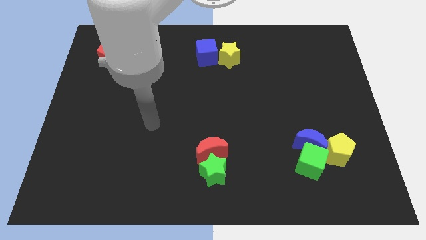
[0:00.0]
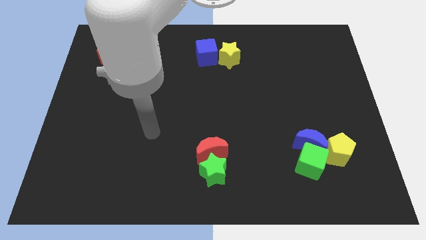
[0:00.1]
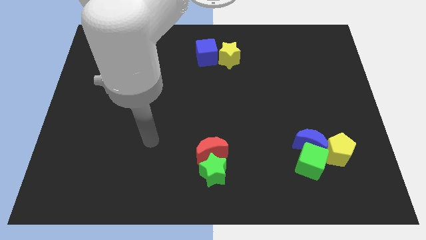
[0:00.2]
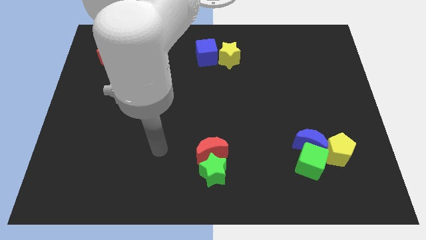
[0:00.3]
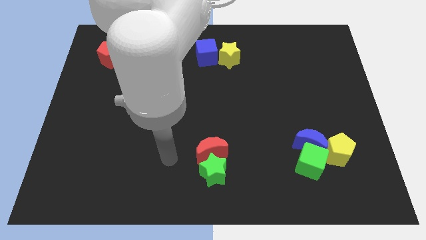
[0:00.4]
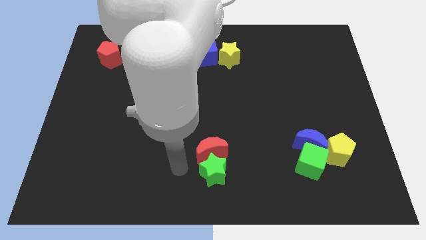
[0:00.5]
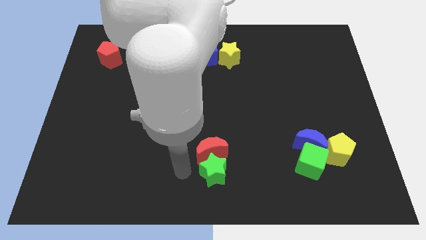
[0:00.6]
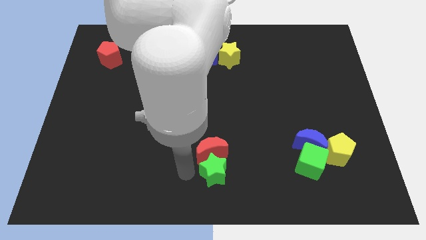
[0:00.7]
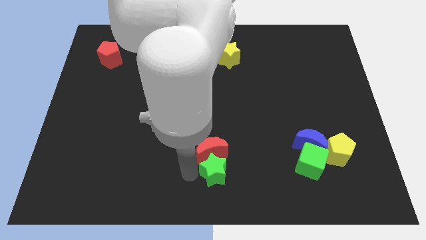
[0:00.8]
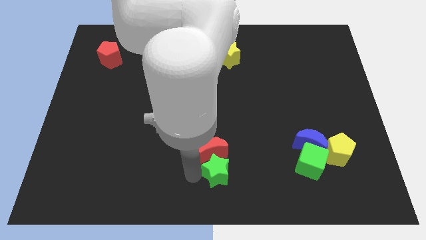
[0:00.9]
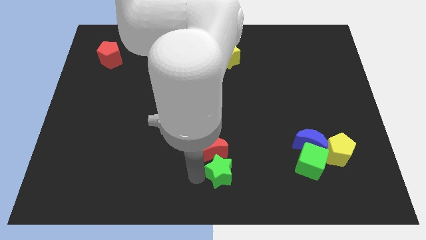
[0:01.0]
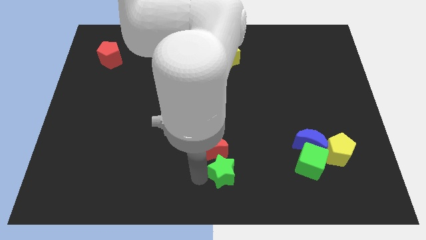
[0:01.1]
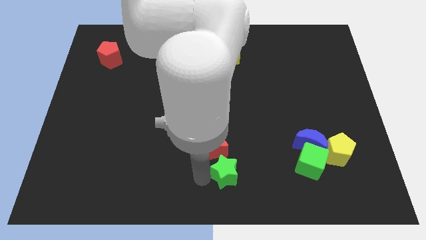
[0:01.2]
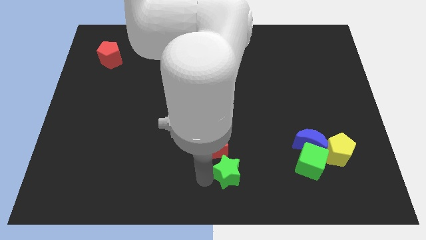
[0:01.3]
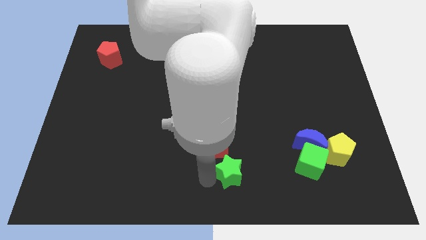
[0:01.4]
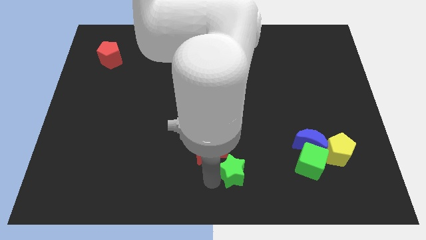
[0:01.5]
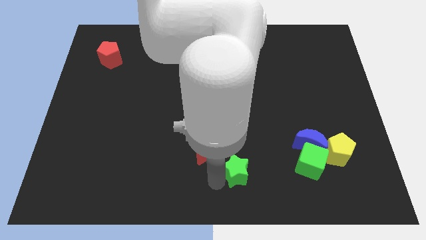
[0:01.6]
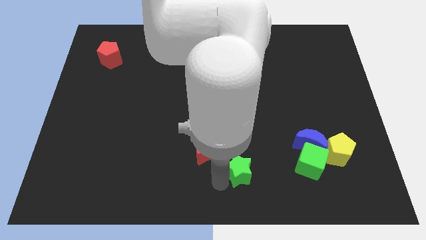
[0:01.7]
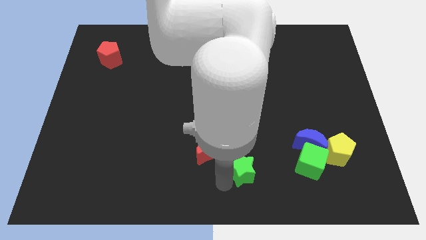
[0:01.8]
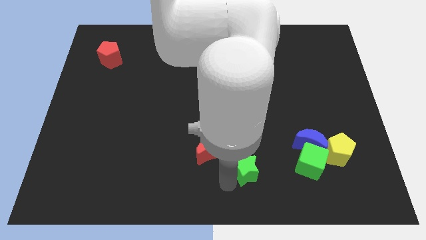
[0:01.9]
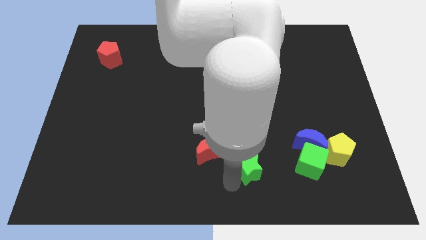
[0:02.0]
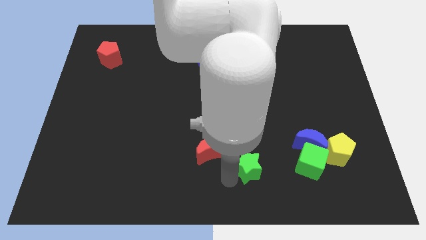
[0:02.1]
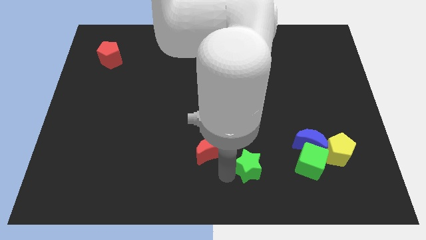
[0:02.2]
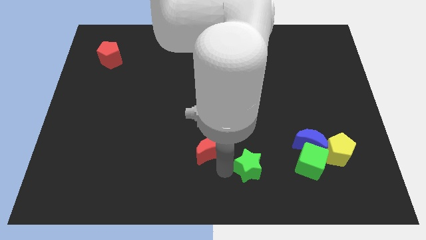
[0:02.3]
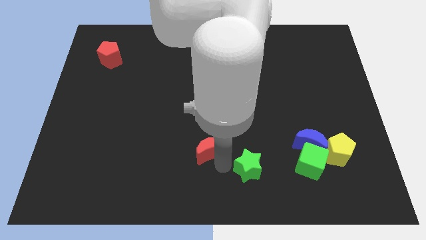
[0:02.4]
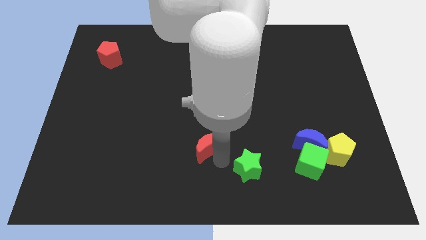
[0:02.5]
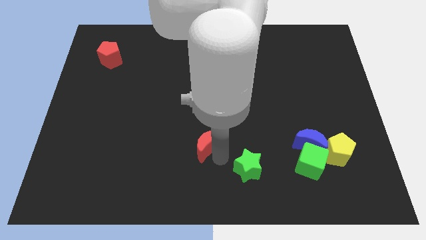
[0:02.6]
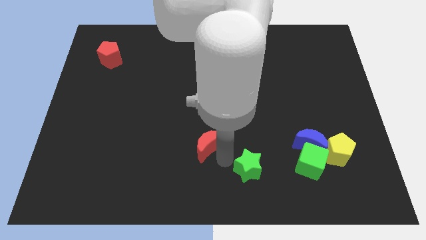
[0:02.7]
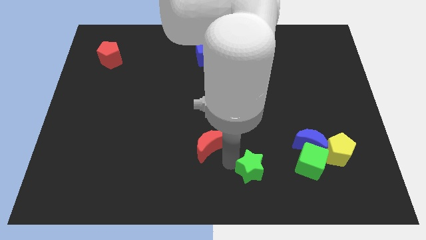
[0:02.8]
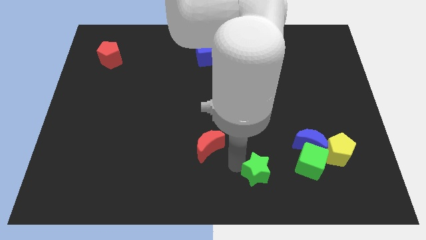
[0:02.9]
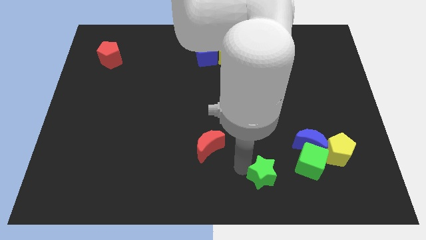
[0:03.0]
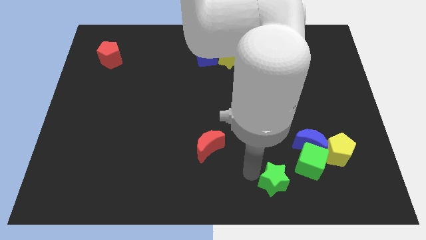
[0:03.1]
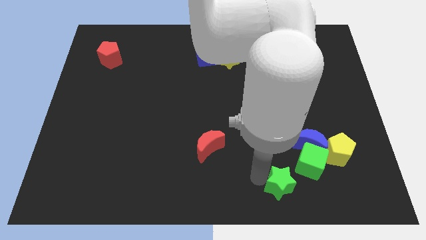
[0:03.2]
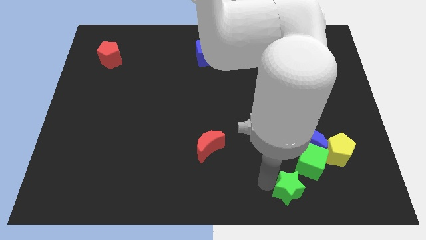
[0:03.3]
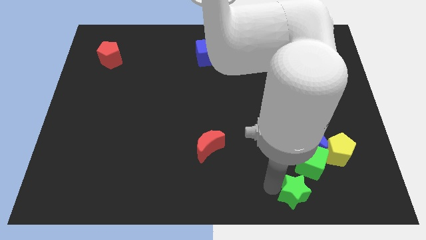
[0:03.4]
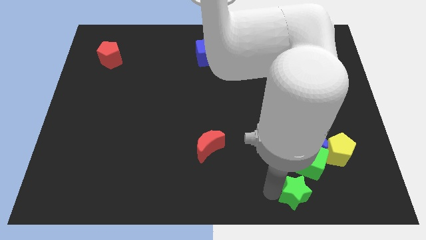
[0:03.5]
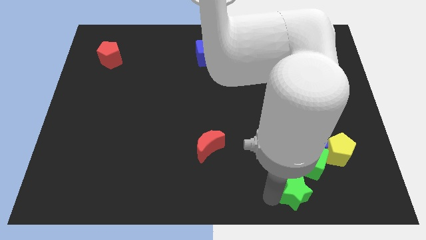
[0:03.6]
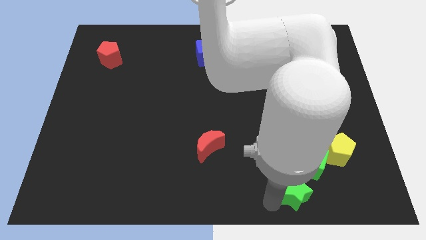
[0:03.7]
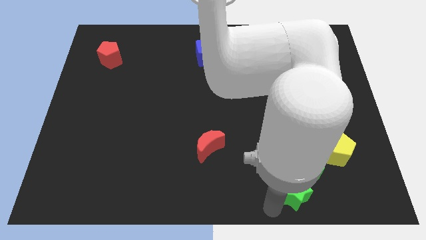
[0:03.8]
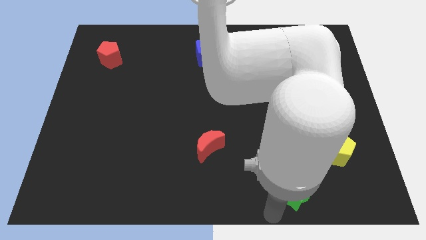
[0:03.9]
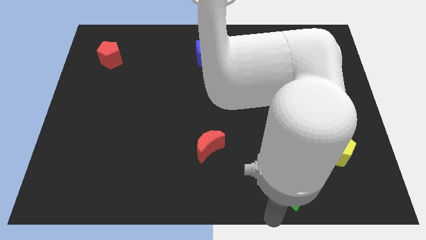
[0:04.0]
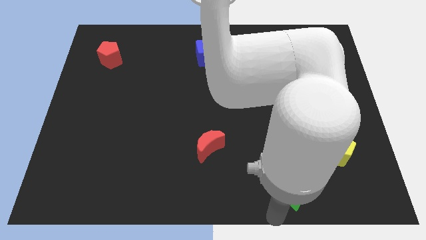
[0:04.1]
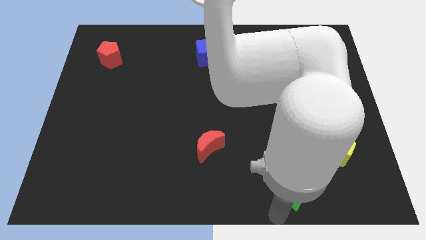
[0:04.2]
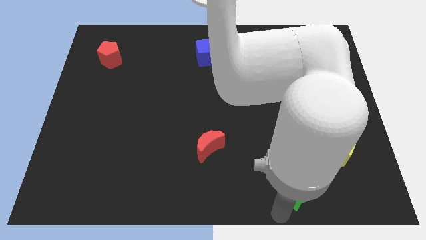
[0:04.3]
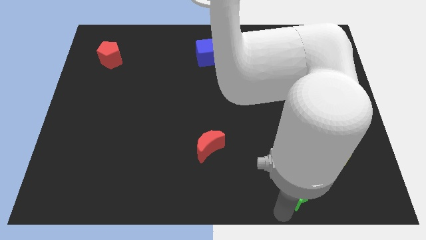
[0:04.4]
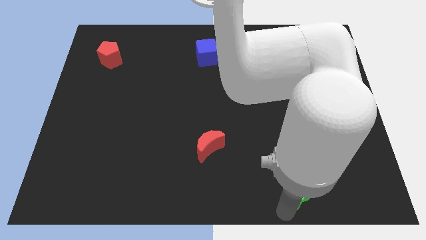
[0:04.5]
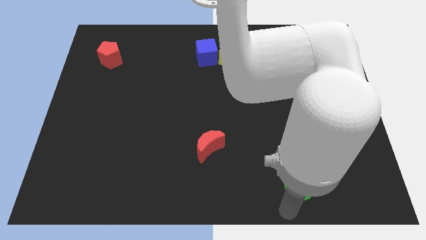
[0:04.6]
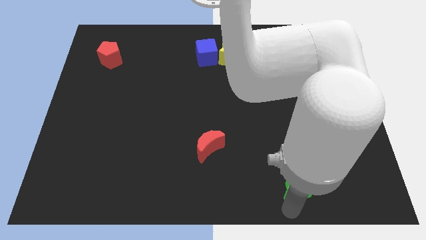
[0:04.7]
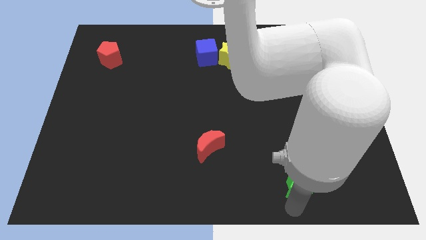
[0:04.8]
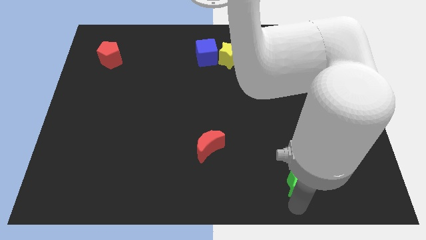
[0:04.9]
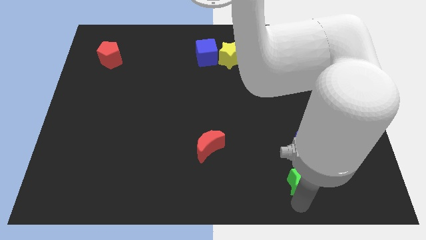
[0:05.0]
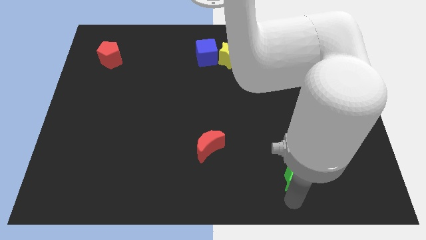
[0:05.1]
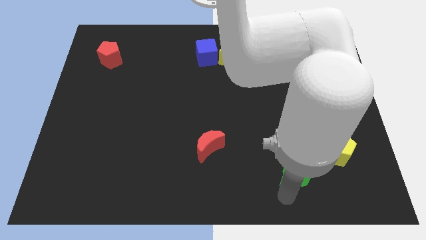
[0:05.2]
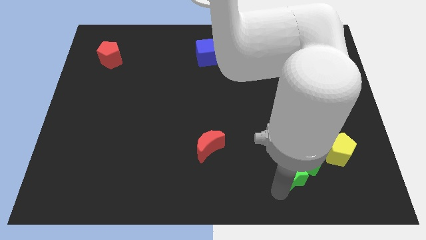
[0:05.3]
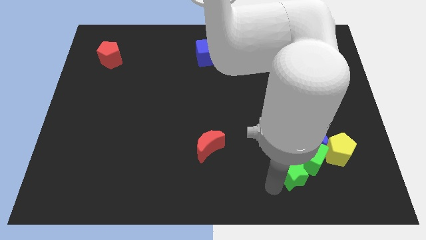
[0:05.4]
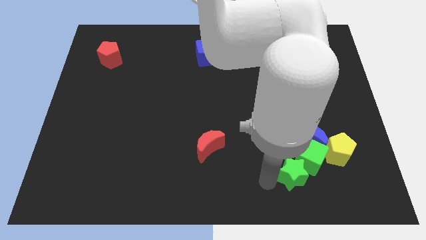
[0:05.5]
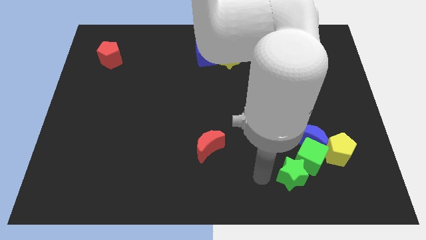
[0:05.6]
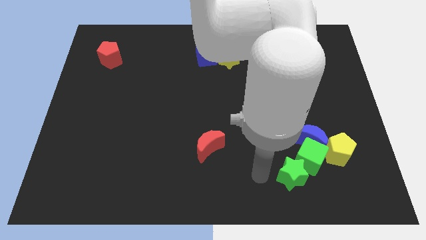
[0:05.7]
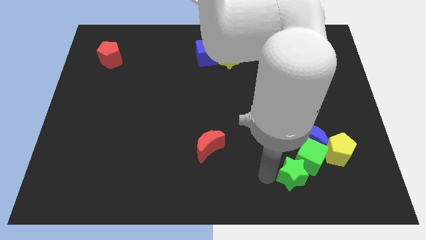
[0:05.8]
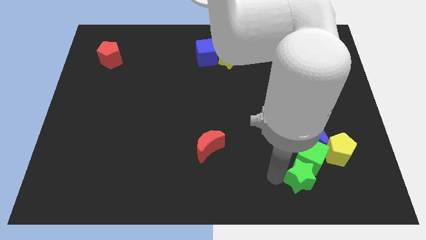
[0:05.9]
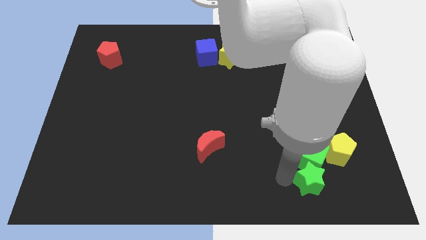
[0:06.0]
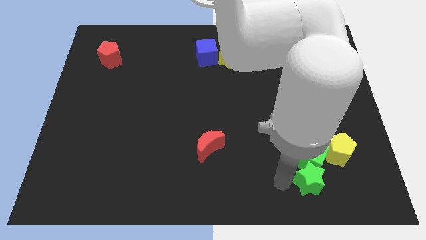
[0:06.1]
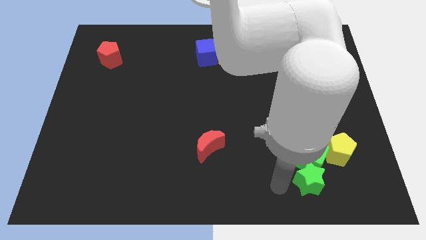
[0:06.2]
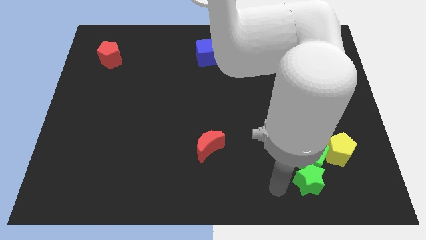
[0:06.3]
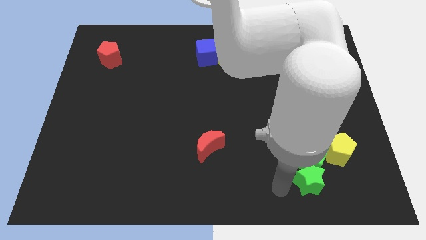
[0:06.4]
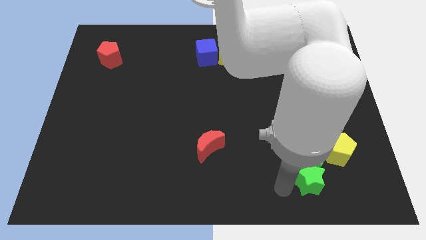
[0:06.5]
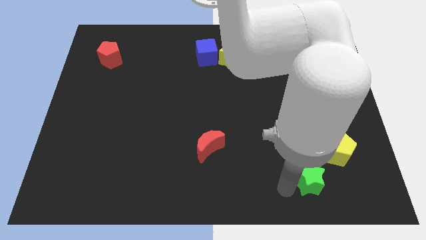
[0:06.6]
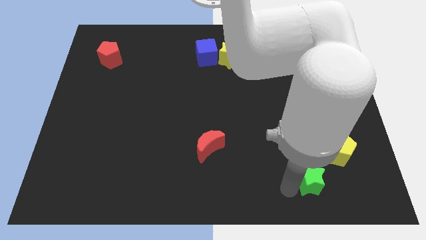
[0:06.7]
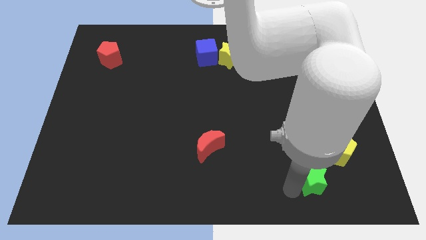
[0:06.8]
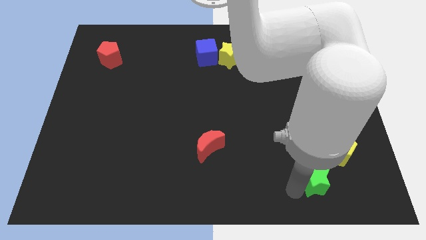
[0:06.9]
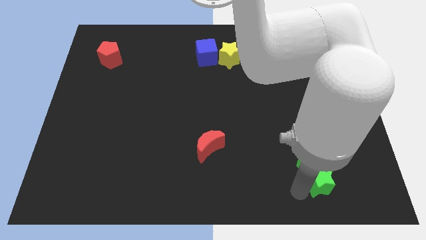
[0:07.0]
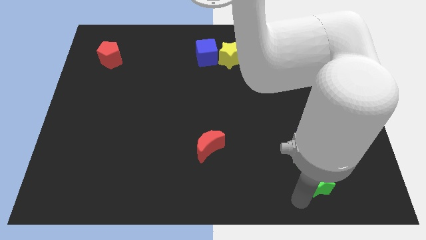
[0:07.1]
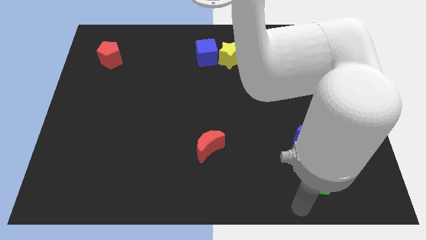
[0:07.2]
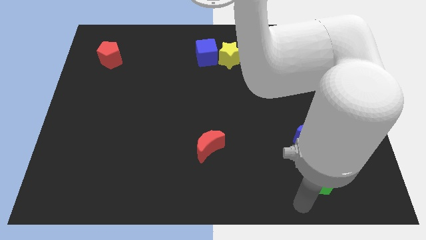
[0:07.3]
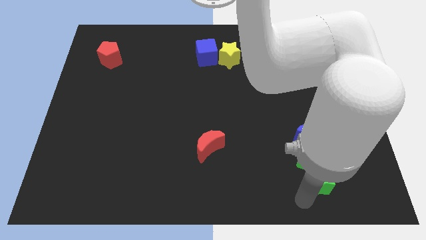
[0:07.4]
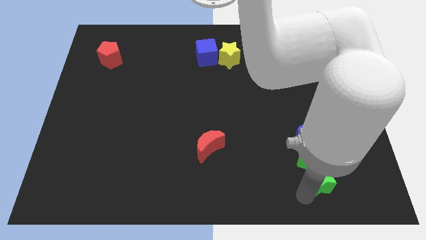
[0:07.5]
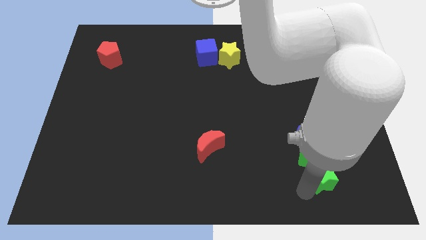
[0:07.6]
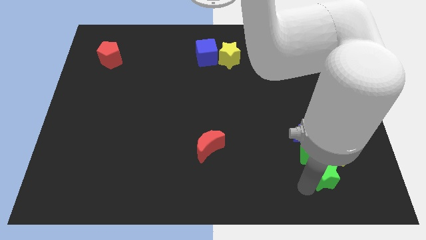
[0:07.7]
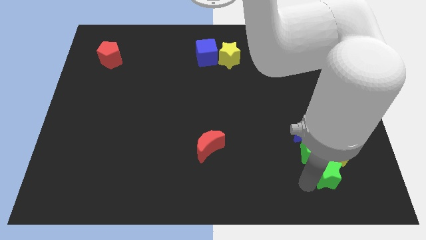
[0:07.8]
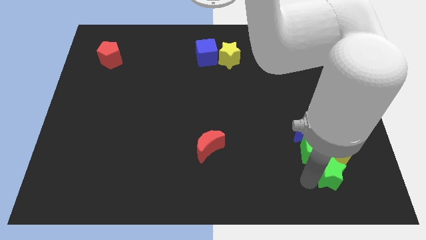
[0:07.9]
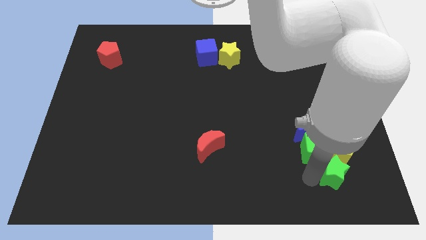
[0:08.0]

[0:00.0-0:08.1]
move the green star towards the yellow pentagon
